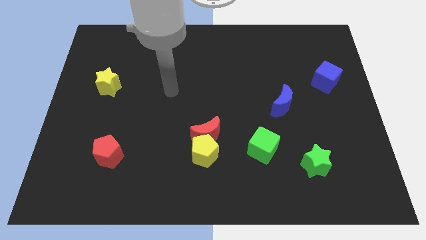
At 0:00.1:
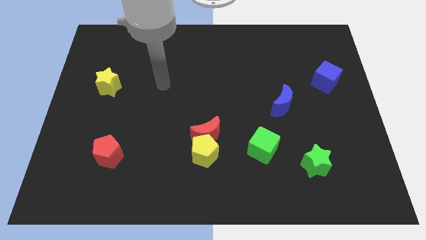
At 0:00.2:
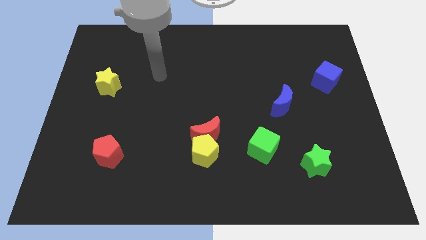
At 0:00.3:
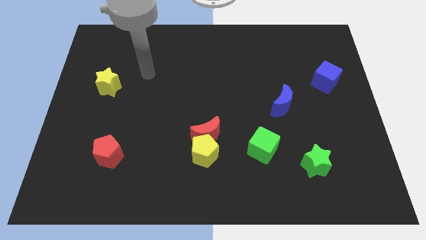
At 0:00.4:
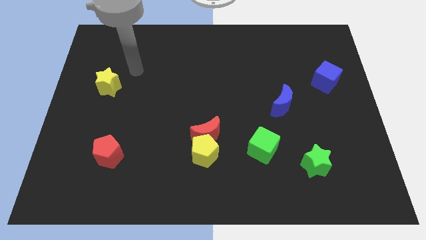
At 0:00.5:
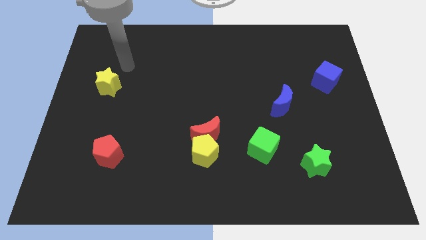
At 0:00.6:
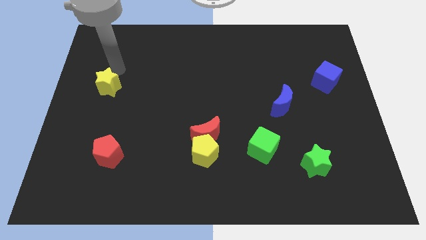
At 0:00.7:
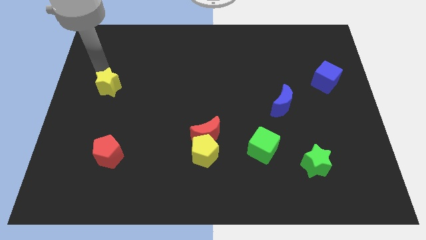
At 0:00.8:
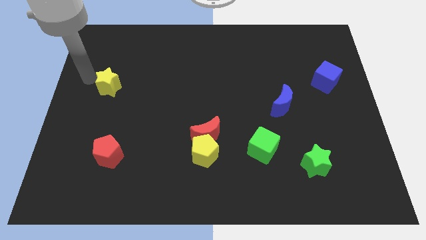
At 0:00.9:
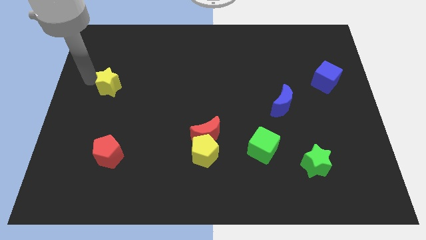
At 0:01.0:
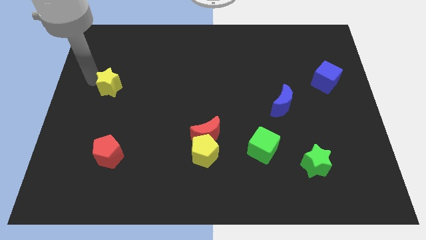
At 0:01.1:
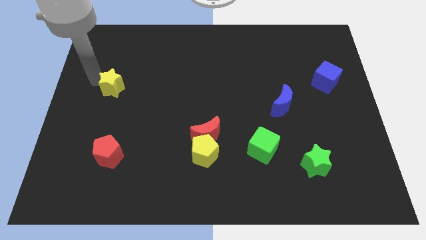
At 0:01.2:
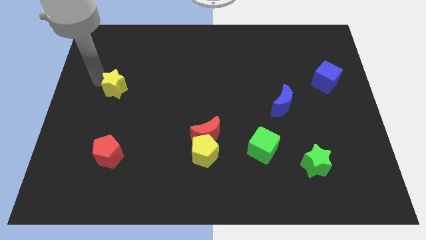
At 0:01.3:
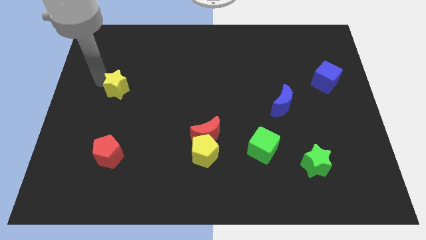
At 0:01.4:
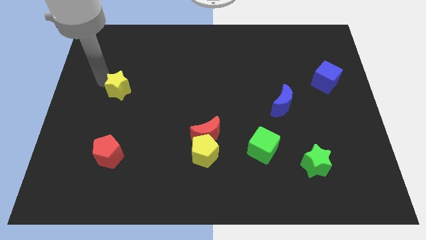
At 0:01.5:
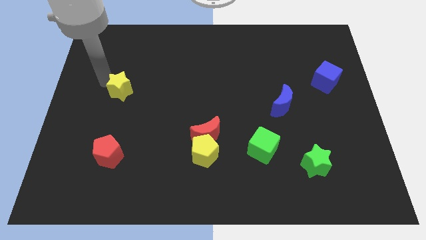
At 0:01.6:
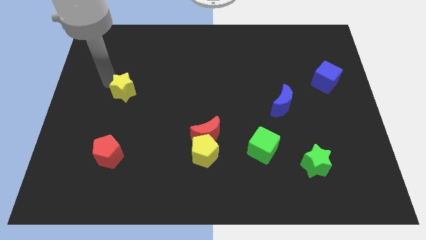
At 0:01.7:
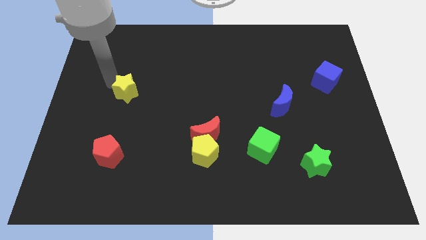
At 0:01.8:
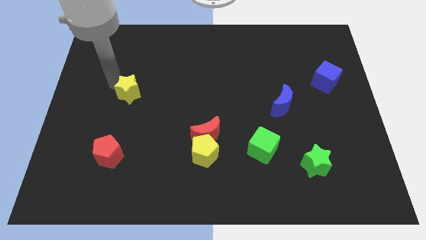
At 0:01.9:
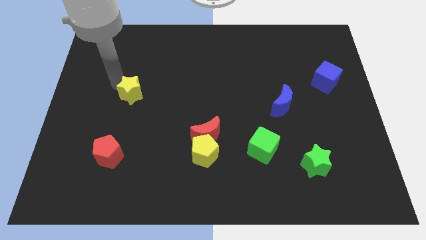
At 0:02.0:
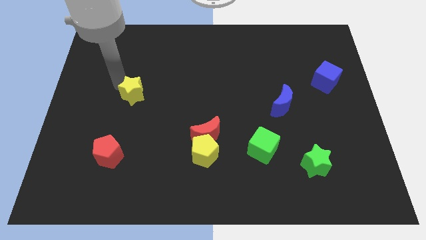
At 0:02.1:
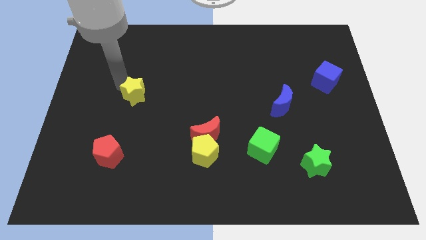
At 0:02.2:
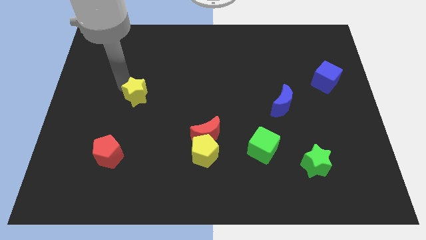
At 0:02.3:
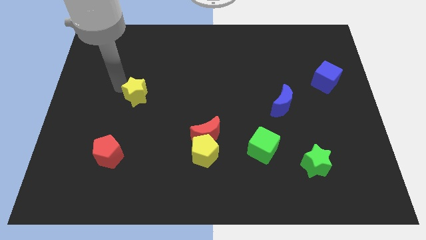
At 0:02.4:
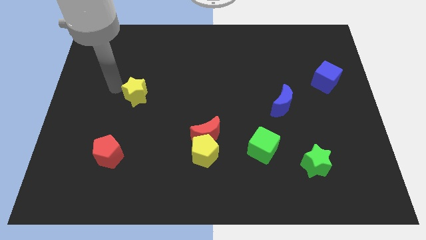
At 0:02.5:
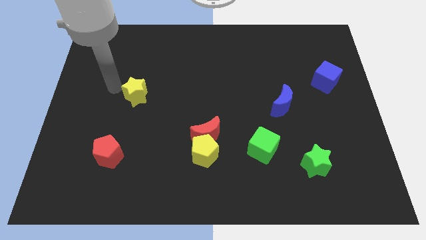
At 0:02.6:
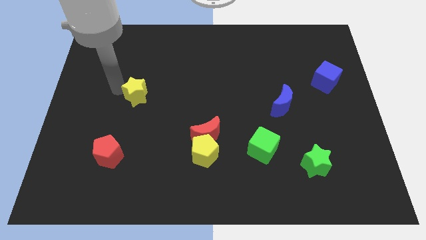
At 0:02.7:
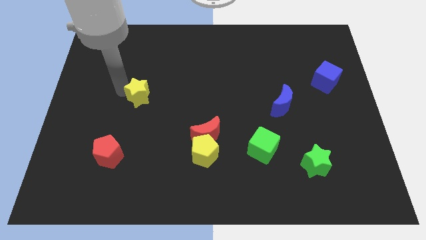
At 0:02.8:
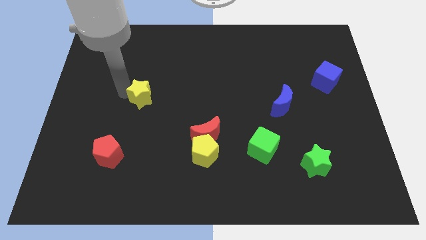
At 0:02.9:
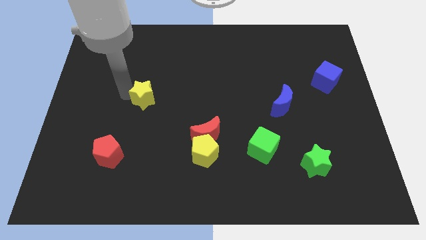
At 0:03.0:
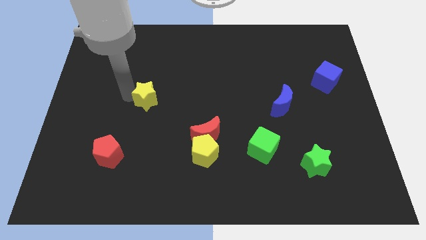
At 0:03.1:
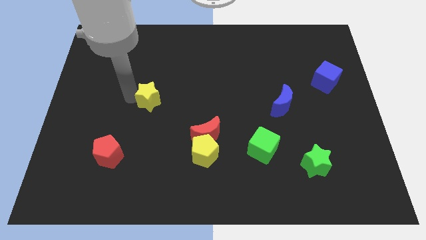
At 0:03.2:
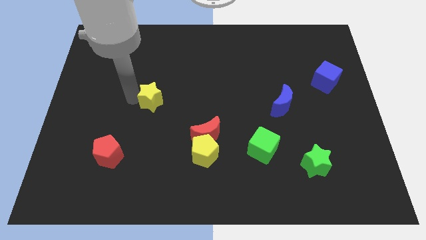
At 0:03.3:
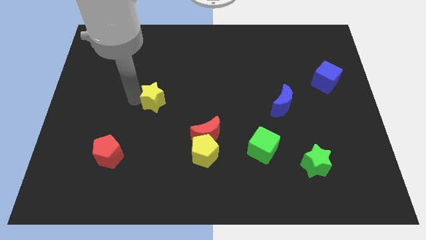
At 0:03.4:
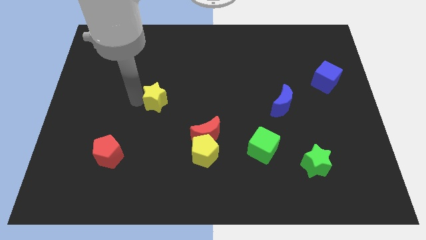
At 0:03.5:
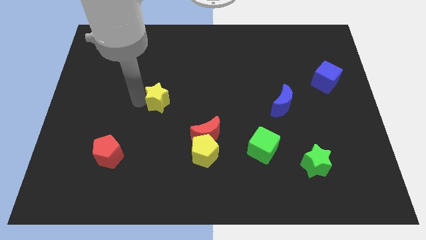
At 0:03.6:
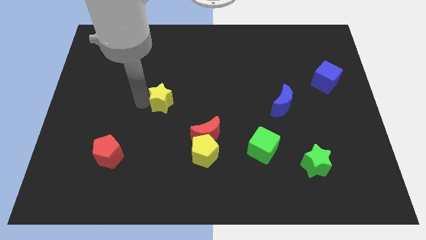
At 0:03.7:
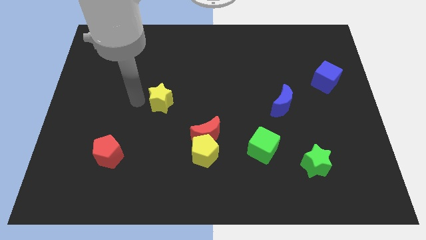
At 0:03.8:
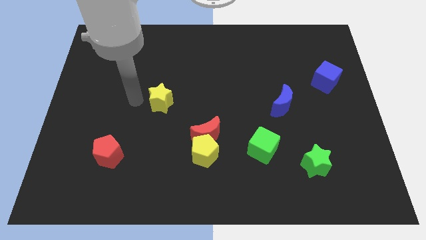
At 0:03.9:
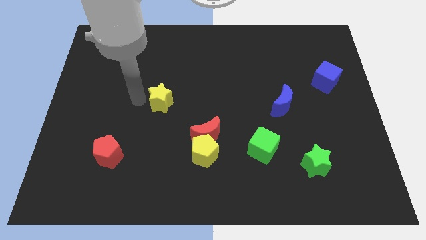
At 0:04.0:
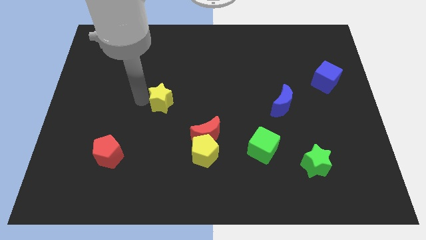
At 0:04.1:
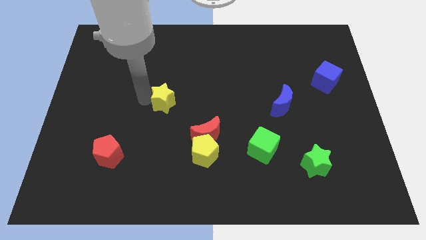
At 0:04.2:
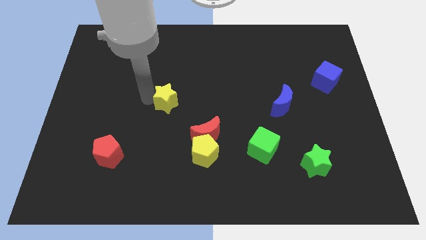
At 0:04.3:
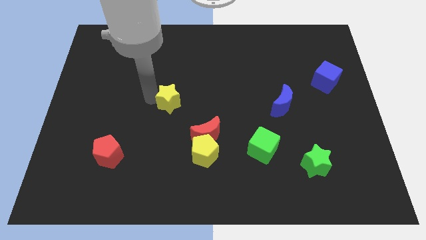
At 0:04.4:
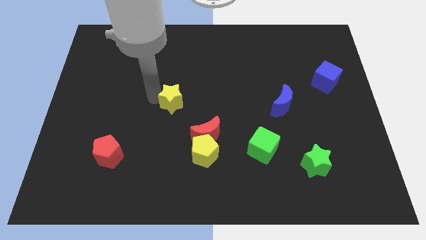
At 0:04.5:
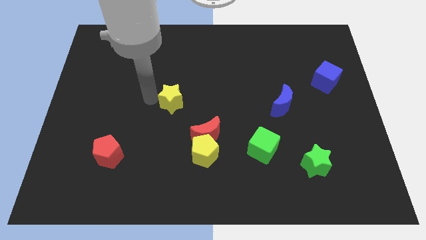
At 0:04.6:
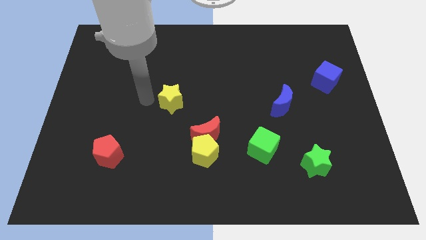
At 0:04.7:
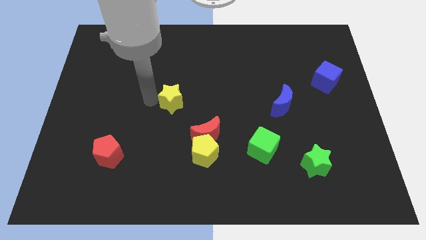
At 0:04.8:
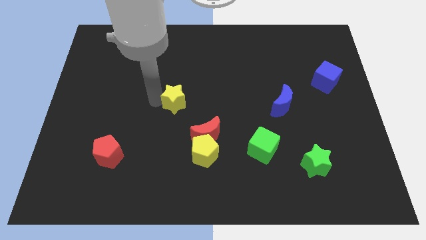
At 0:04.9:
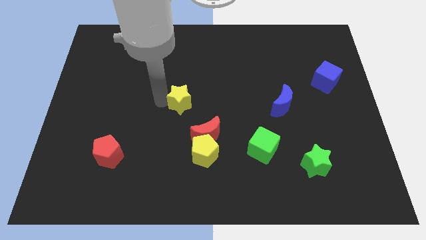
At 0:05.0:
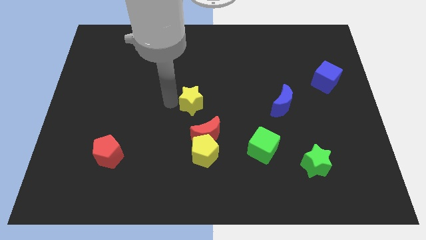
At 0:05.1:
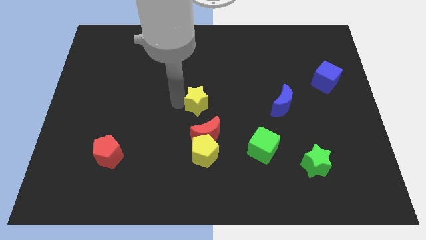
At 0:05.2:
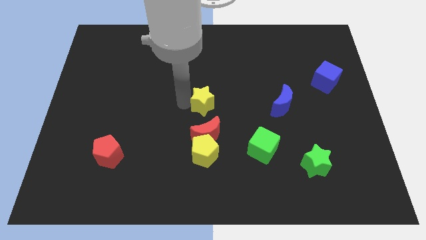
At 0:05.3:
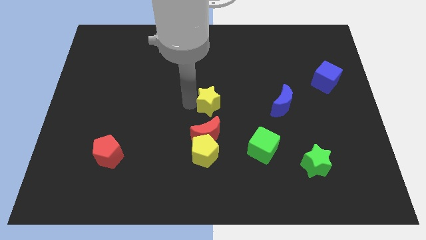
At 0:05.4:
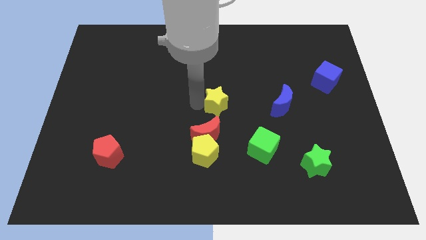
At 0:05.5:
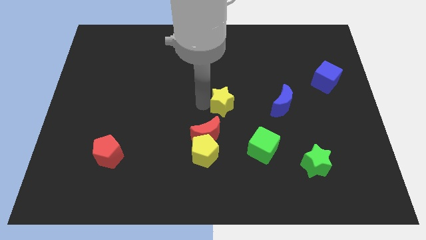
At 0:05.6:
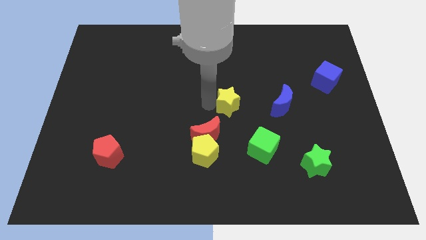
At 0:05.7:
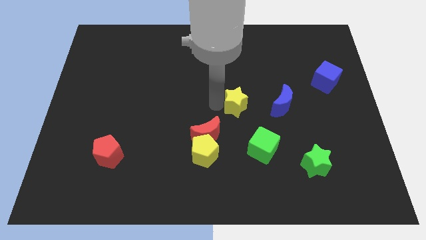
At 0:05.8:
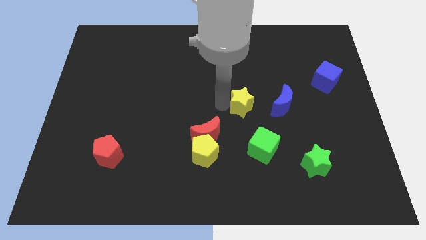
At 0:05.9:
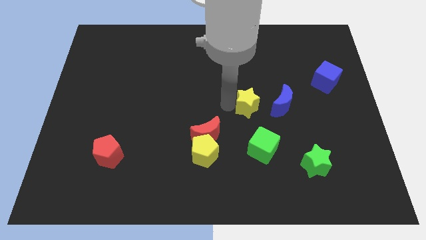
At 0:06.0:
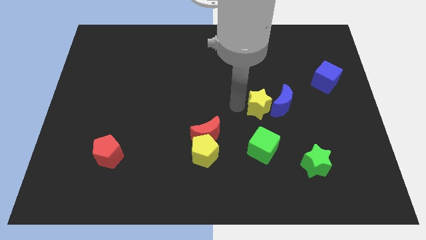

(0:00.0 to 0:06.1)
push the yellow star next to the blue moon

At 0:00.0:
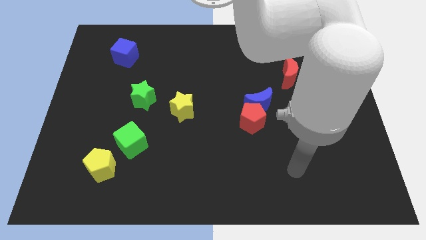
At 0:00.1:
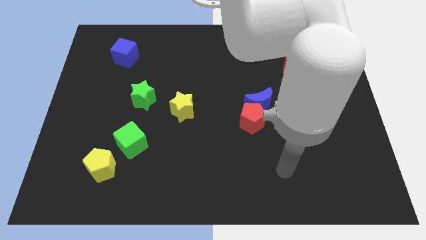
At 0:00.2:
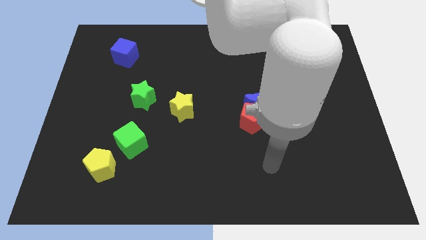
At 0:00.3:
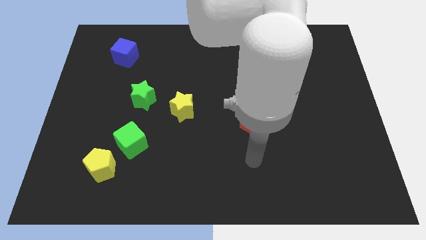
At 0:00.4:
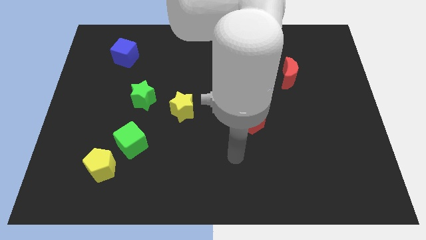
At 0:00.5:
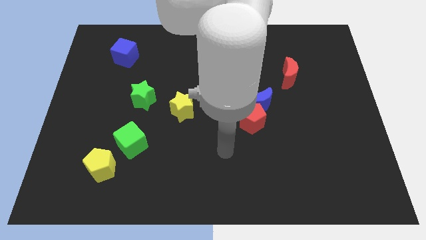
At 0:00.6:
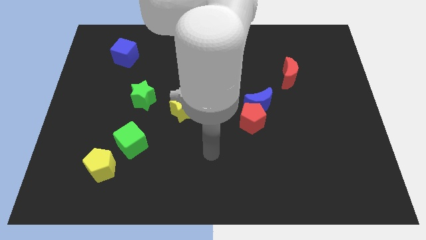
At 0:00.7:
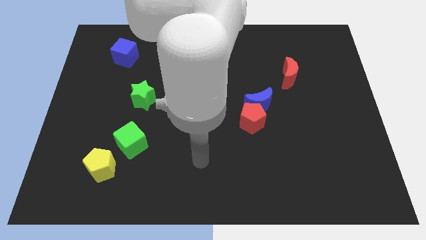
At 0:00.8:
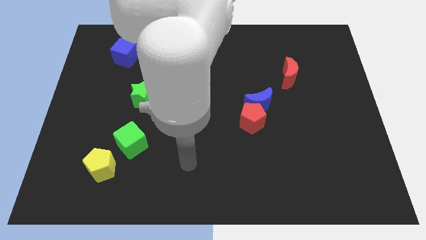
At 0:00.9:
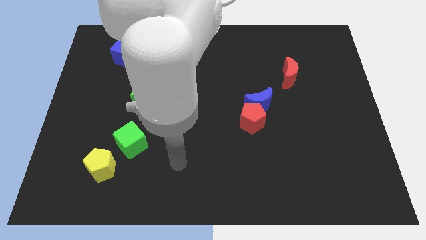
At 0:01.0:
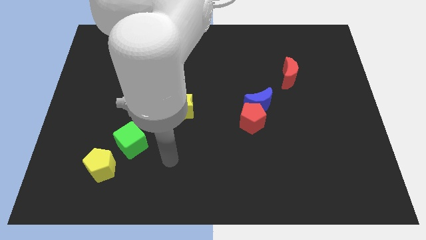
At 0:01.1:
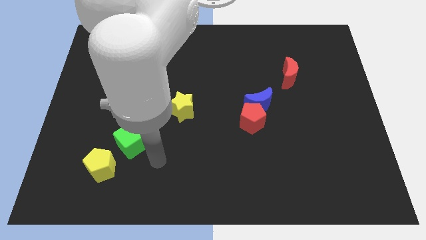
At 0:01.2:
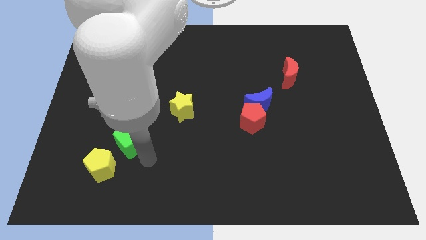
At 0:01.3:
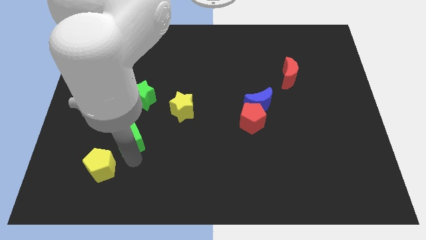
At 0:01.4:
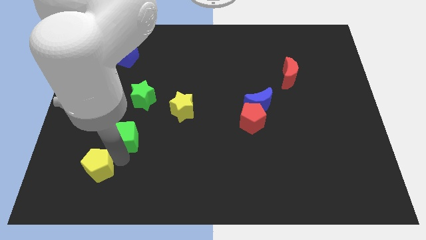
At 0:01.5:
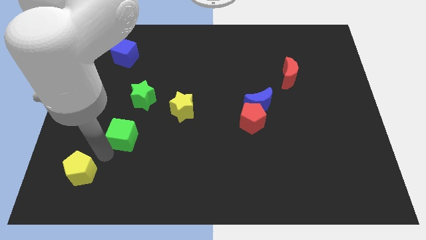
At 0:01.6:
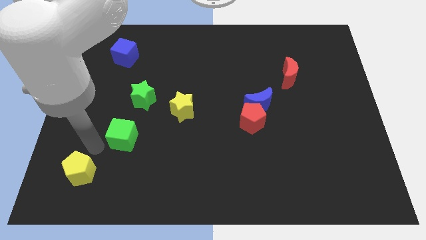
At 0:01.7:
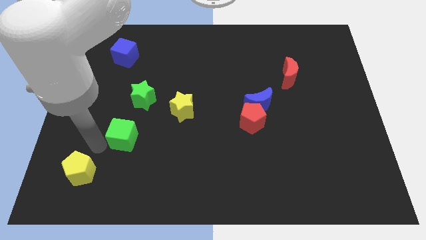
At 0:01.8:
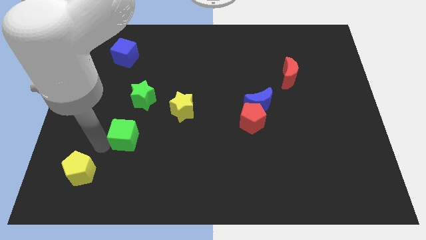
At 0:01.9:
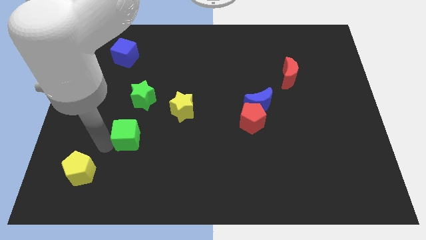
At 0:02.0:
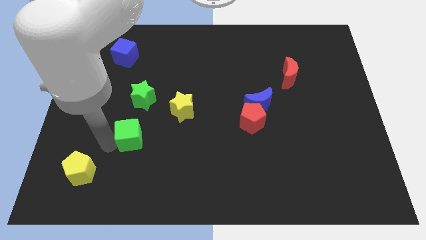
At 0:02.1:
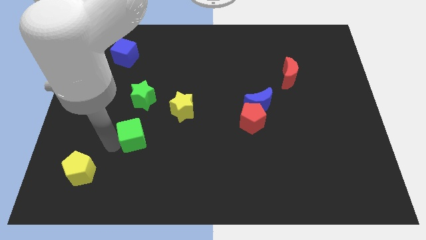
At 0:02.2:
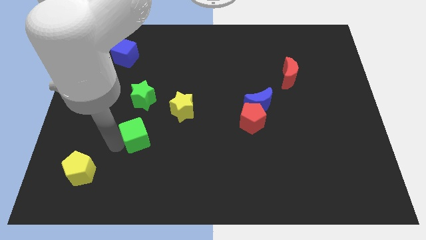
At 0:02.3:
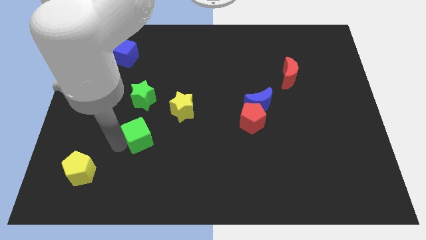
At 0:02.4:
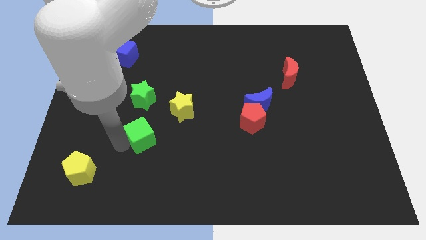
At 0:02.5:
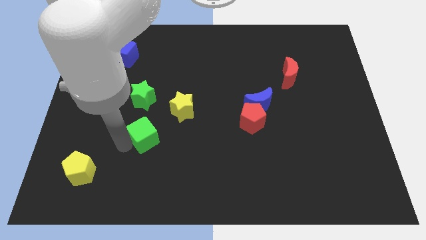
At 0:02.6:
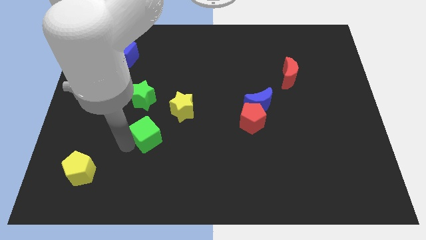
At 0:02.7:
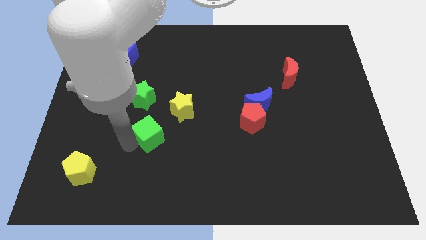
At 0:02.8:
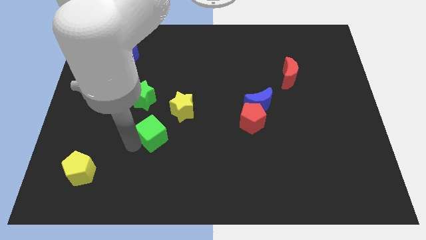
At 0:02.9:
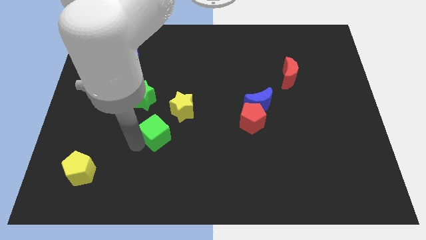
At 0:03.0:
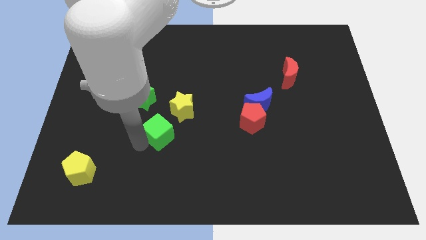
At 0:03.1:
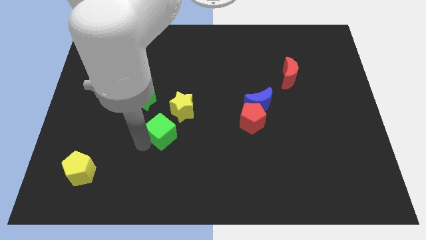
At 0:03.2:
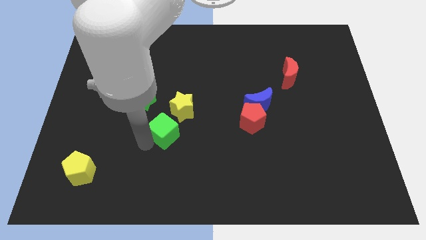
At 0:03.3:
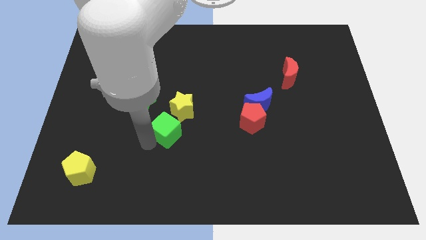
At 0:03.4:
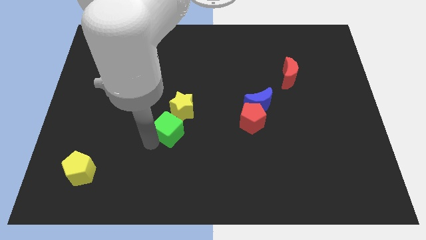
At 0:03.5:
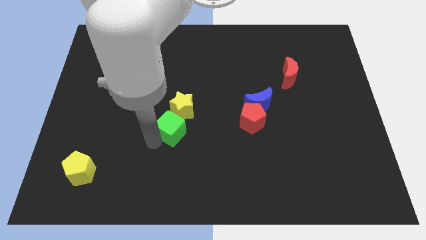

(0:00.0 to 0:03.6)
move the green cube towards the yellow star
